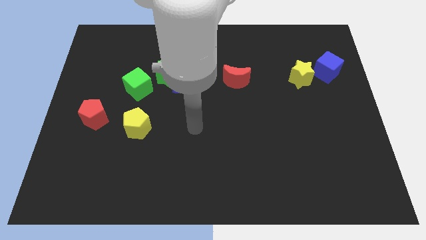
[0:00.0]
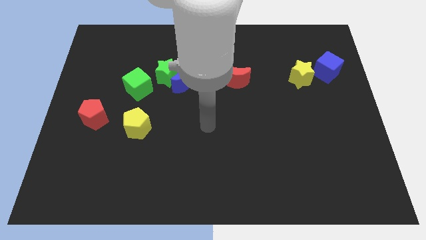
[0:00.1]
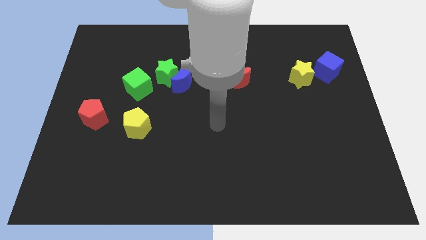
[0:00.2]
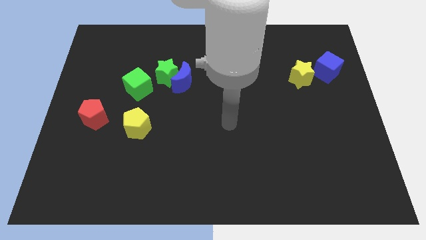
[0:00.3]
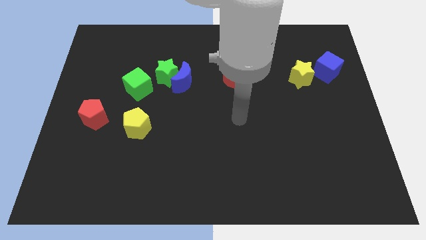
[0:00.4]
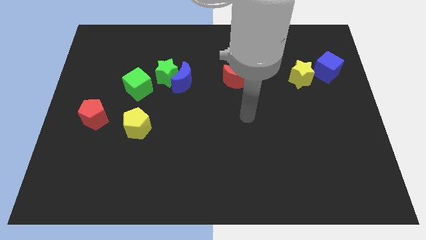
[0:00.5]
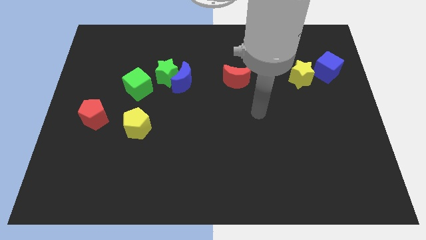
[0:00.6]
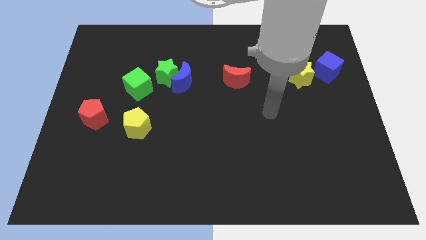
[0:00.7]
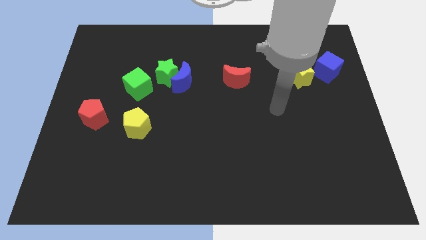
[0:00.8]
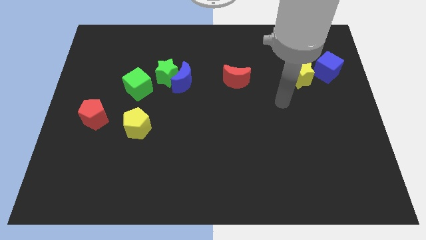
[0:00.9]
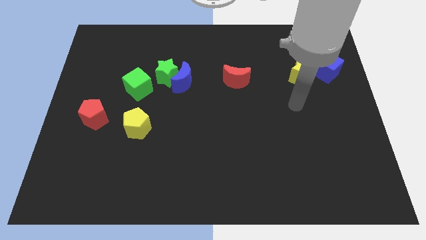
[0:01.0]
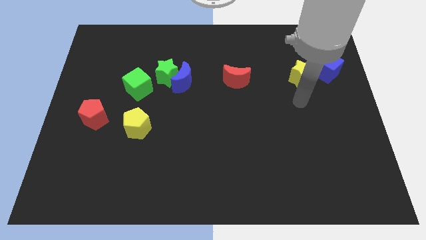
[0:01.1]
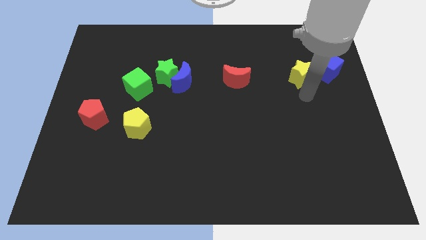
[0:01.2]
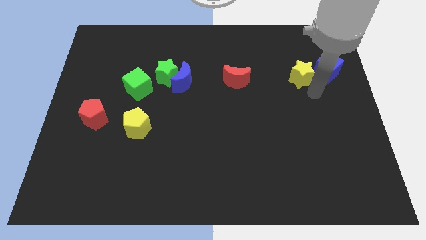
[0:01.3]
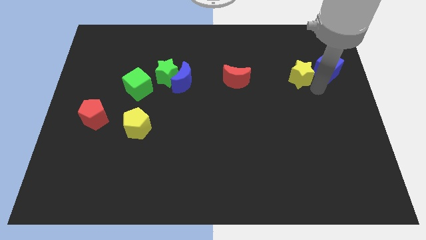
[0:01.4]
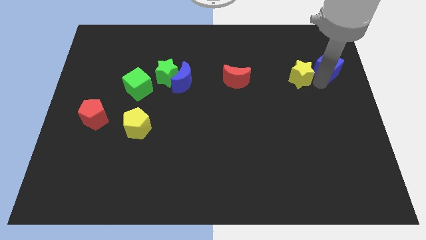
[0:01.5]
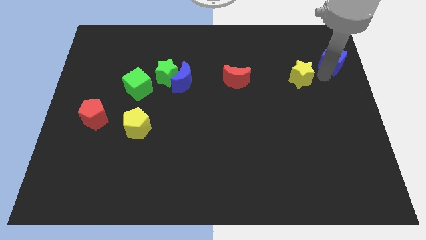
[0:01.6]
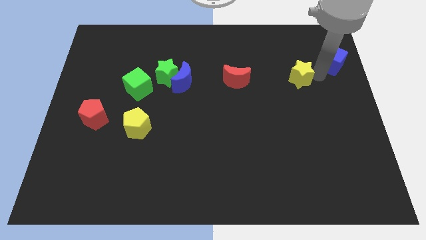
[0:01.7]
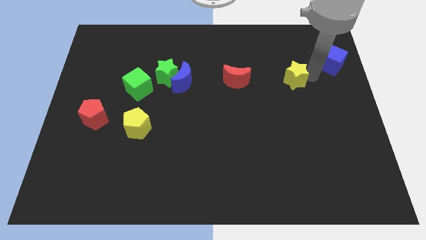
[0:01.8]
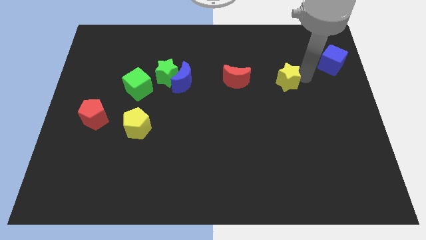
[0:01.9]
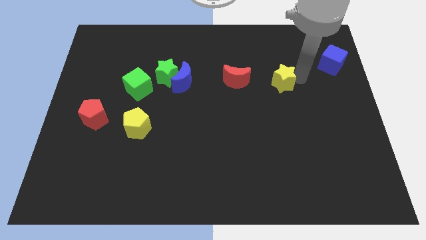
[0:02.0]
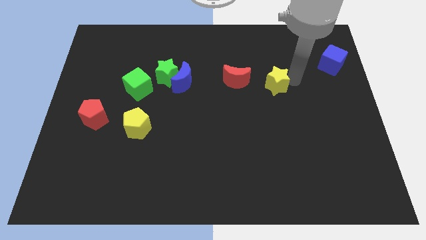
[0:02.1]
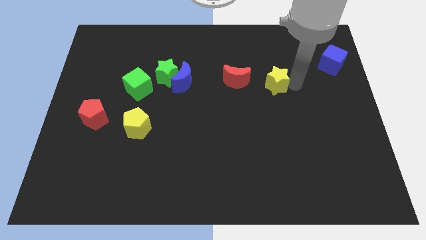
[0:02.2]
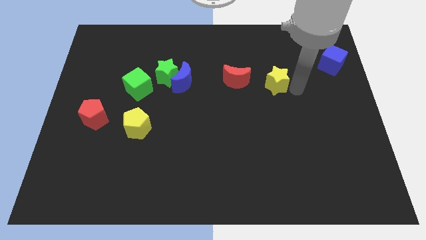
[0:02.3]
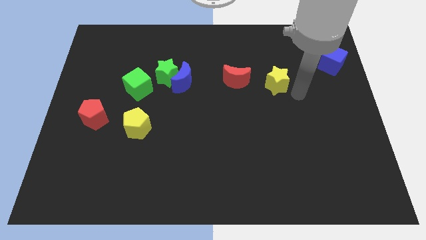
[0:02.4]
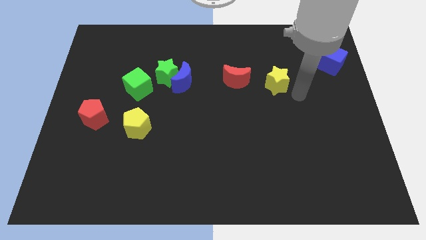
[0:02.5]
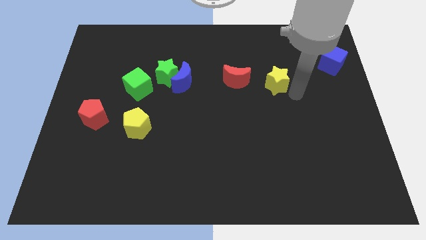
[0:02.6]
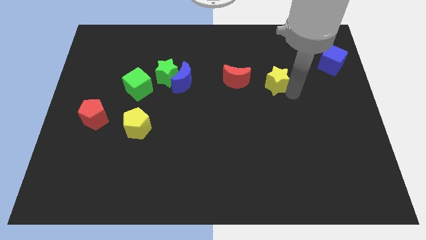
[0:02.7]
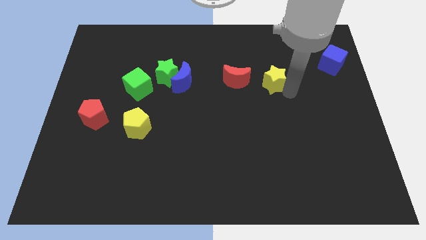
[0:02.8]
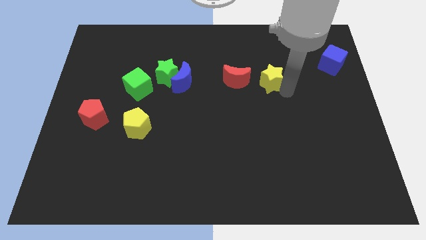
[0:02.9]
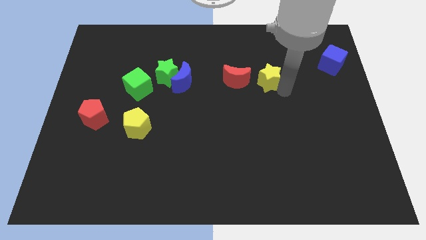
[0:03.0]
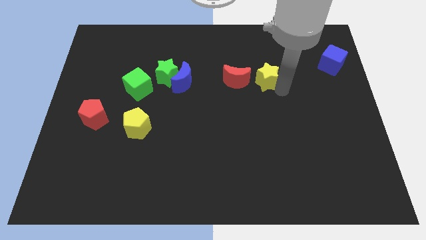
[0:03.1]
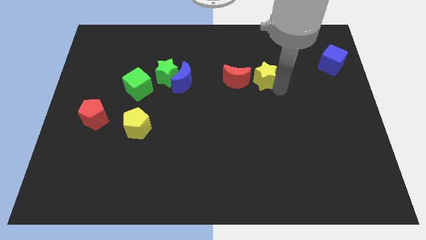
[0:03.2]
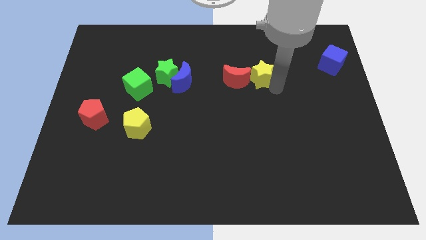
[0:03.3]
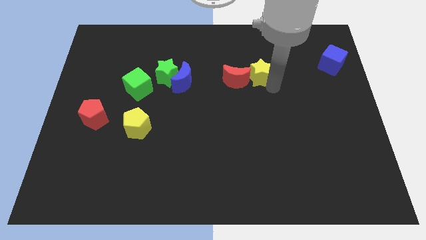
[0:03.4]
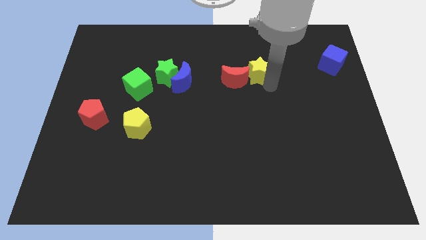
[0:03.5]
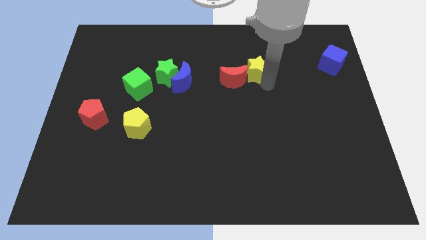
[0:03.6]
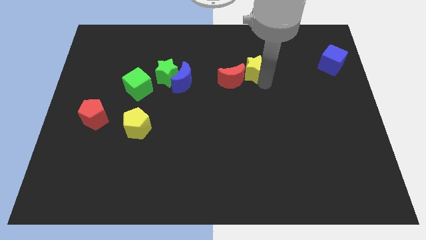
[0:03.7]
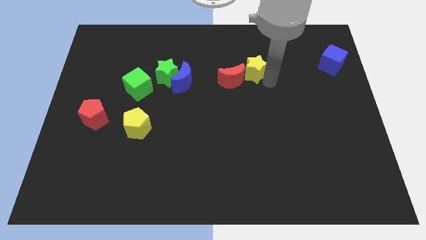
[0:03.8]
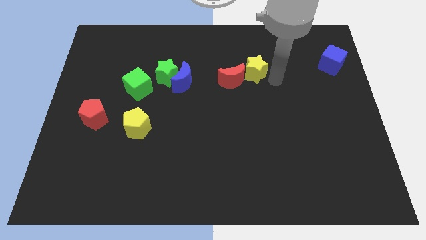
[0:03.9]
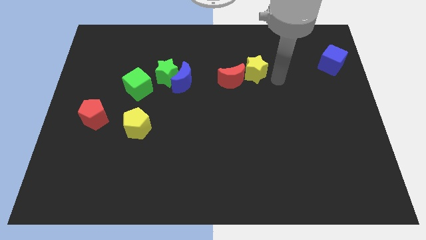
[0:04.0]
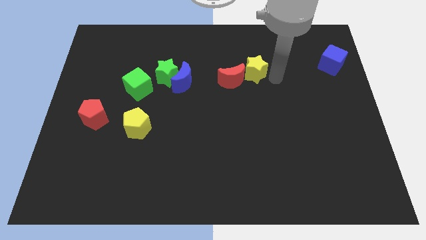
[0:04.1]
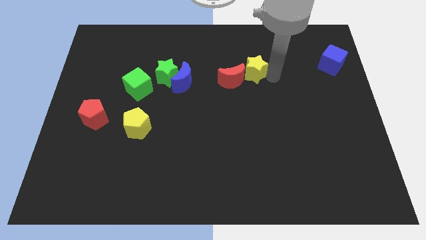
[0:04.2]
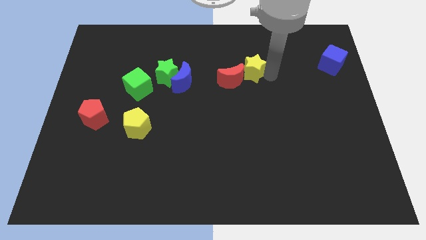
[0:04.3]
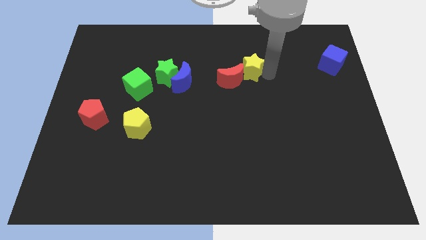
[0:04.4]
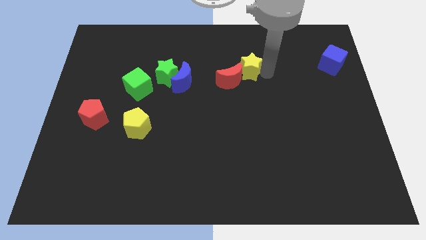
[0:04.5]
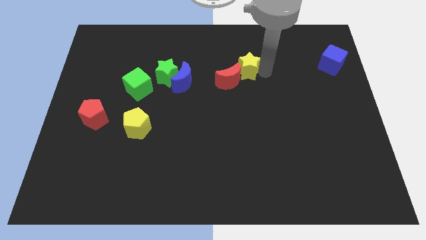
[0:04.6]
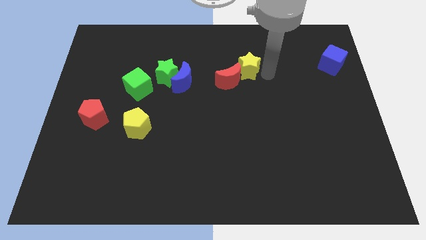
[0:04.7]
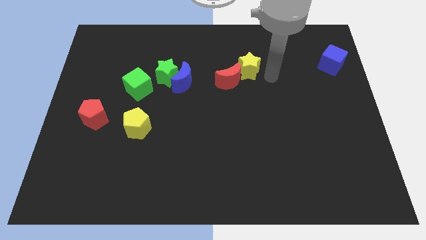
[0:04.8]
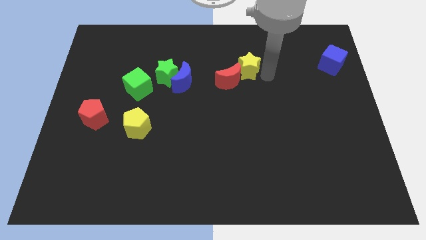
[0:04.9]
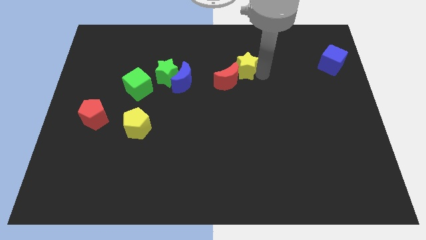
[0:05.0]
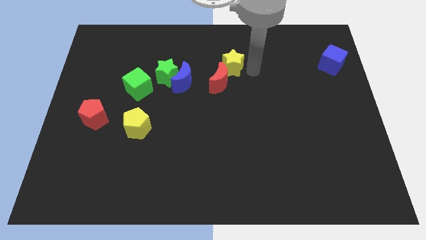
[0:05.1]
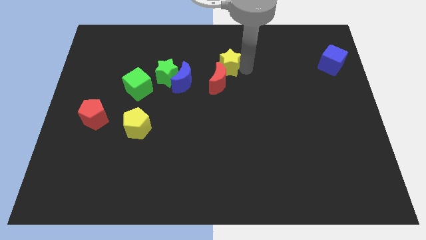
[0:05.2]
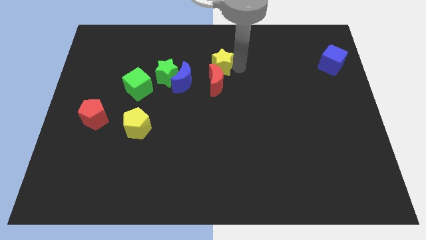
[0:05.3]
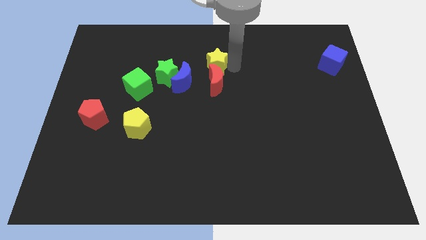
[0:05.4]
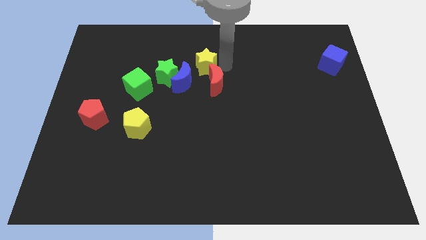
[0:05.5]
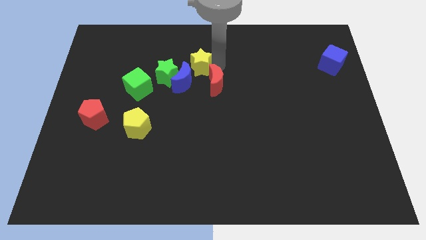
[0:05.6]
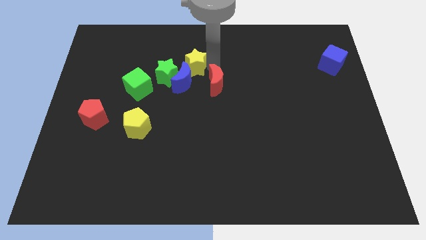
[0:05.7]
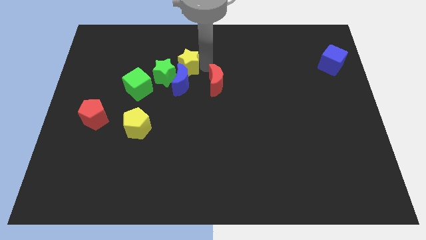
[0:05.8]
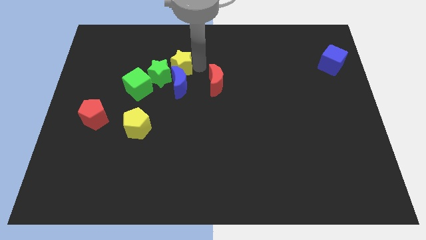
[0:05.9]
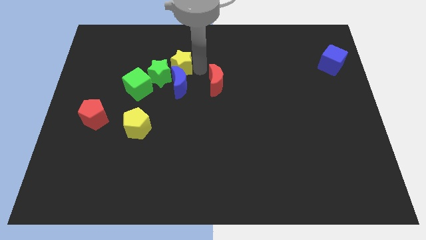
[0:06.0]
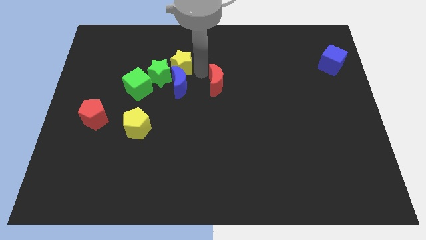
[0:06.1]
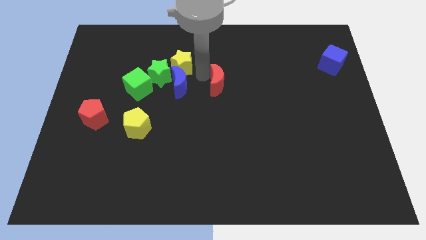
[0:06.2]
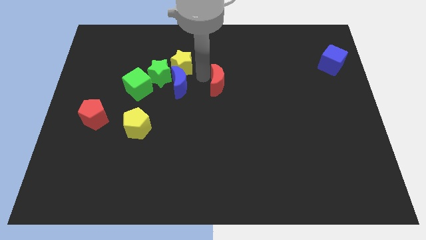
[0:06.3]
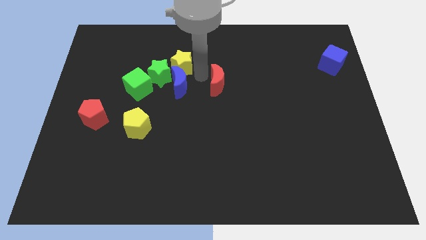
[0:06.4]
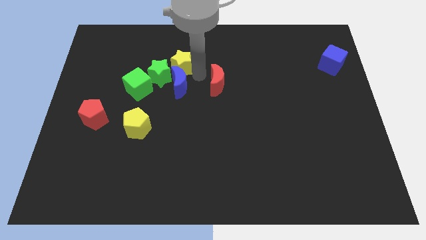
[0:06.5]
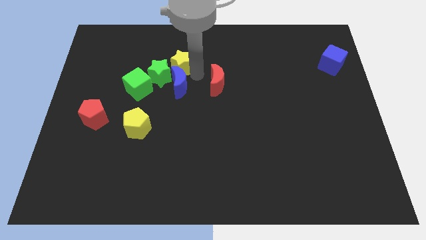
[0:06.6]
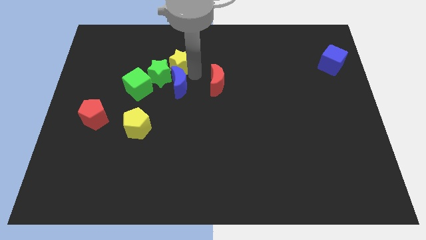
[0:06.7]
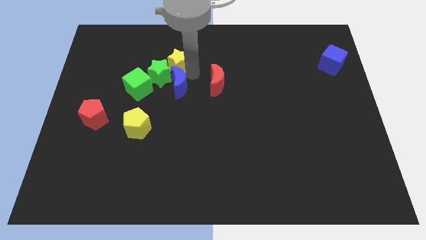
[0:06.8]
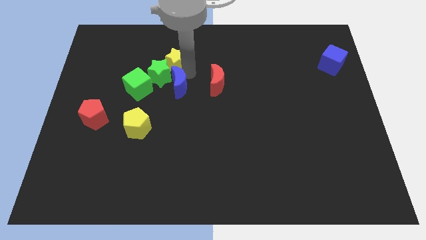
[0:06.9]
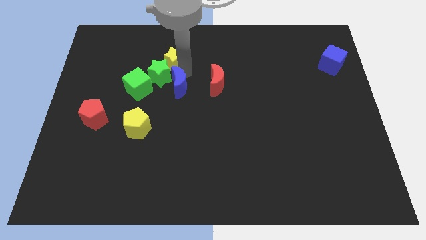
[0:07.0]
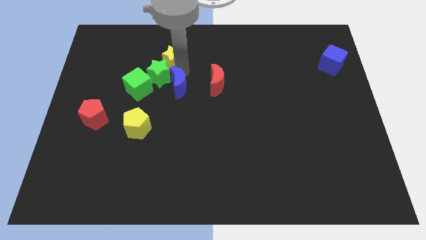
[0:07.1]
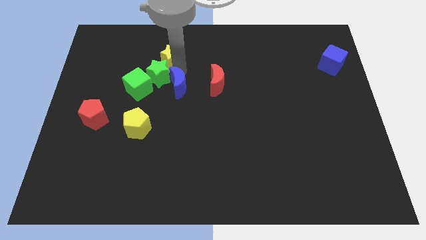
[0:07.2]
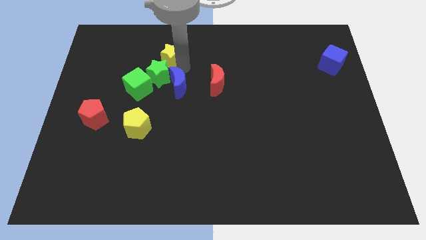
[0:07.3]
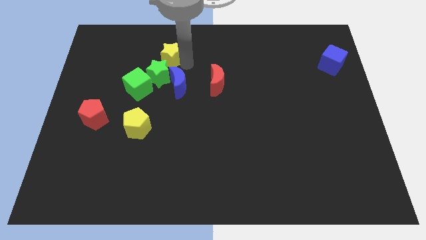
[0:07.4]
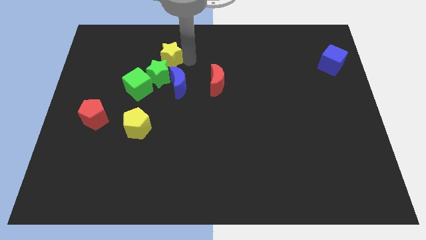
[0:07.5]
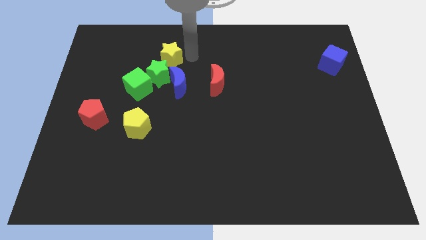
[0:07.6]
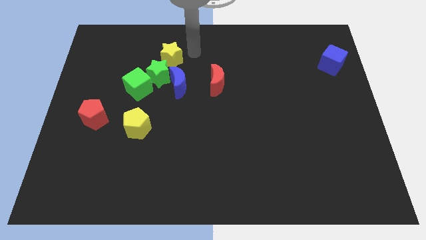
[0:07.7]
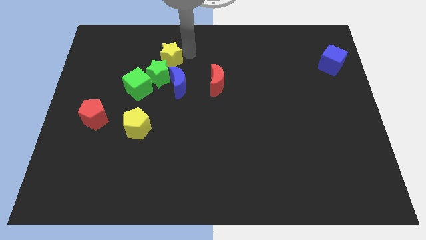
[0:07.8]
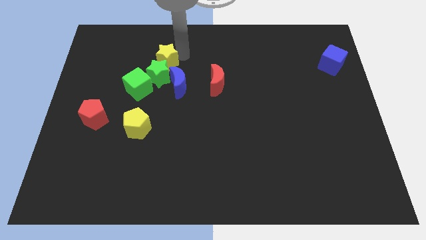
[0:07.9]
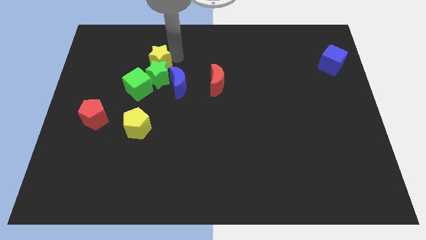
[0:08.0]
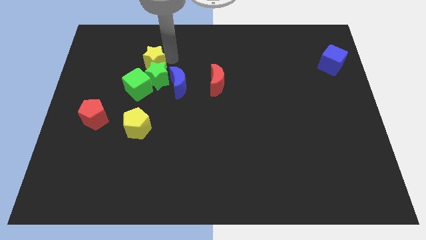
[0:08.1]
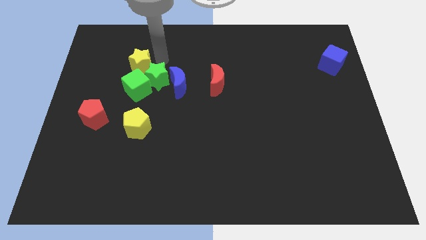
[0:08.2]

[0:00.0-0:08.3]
move the yellow star just left of the green star

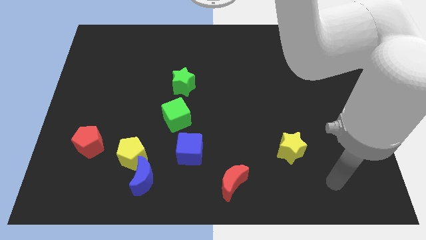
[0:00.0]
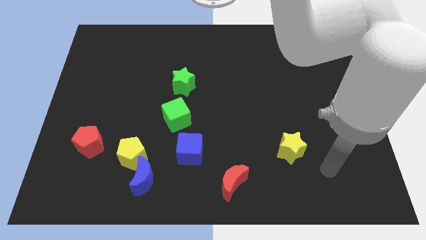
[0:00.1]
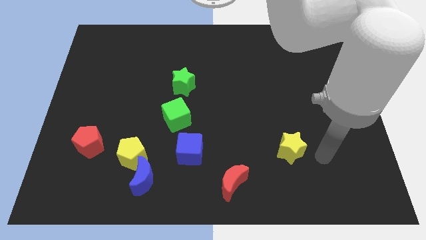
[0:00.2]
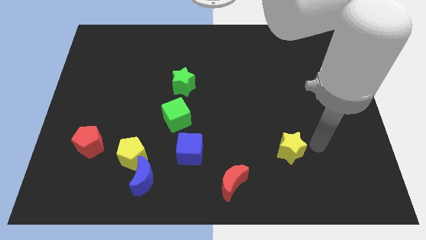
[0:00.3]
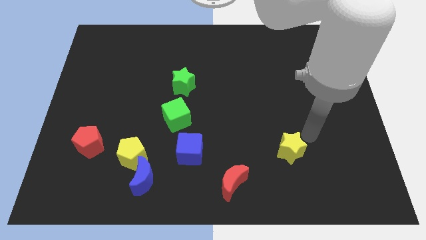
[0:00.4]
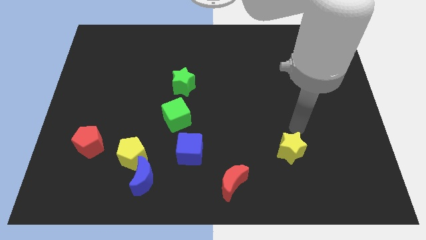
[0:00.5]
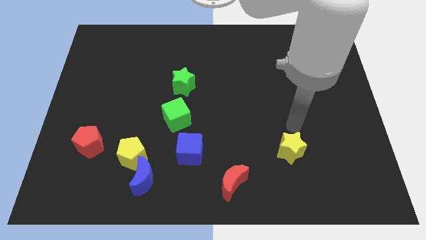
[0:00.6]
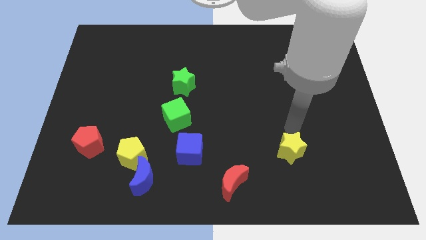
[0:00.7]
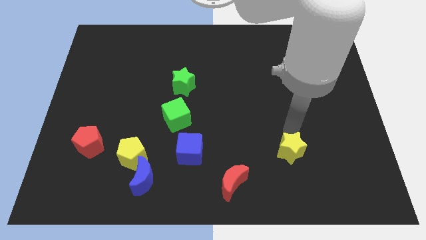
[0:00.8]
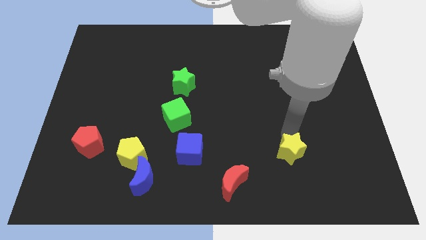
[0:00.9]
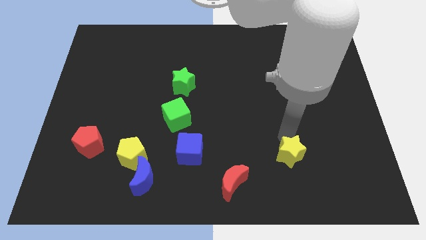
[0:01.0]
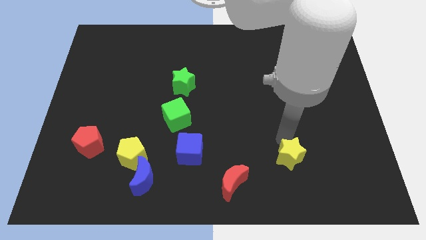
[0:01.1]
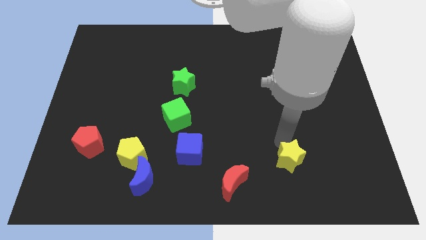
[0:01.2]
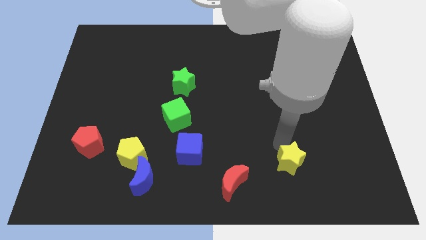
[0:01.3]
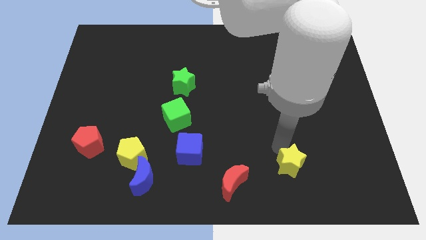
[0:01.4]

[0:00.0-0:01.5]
slide the yellow star to the right side of the red moon
